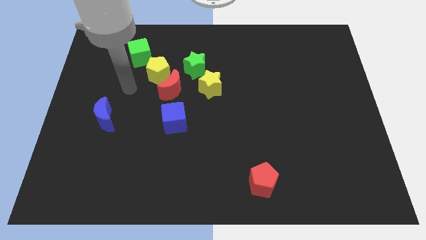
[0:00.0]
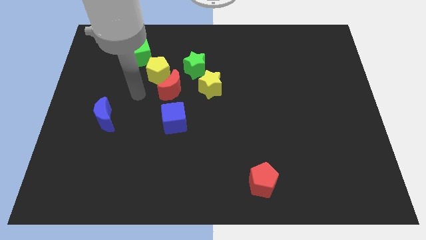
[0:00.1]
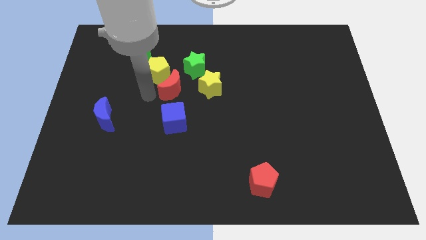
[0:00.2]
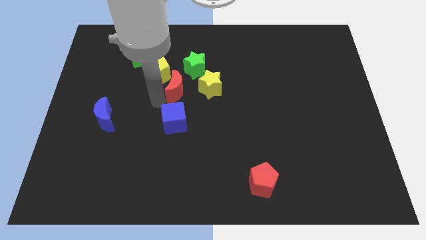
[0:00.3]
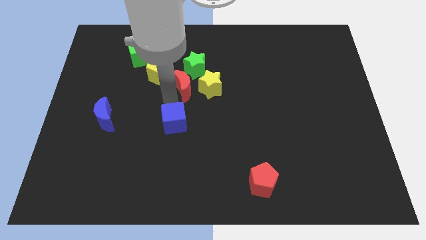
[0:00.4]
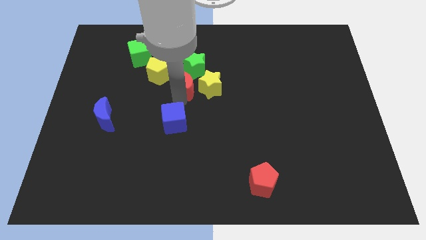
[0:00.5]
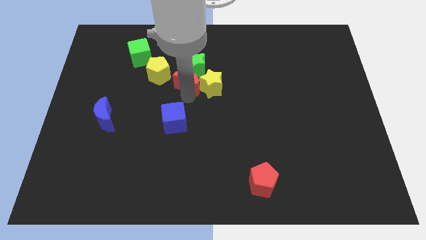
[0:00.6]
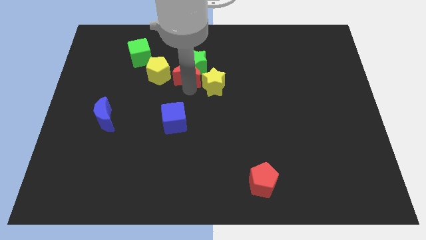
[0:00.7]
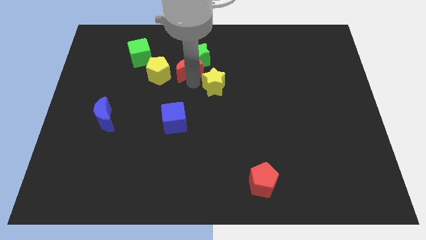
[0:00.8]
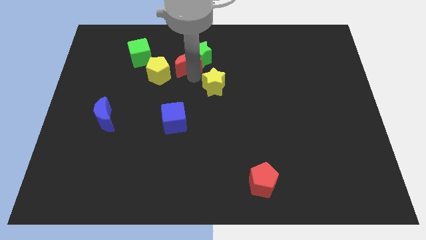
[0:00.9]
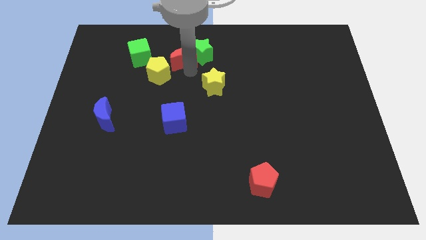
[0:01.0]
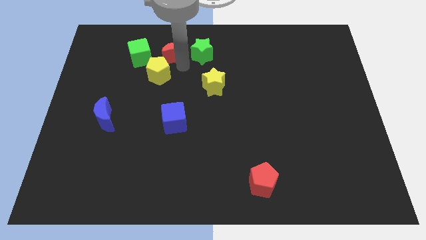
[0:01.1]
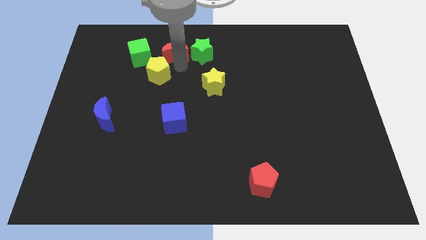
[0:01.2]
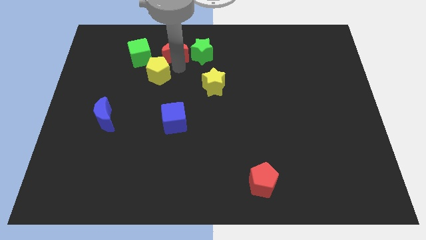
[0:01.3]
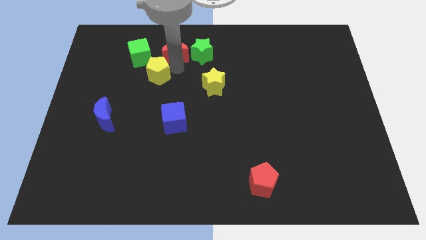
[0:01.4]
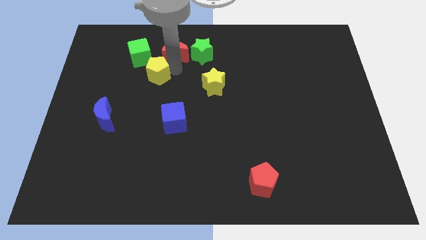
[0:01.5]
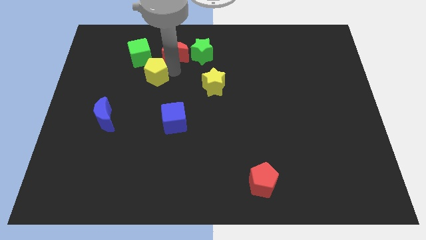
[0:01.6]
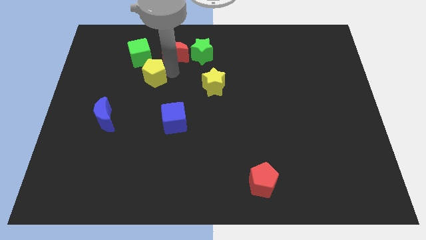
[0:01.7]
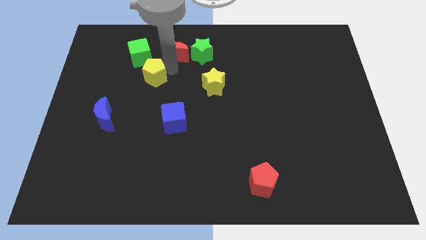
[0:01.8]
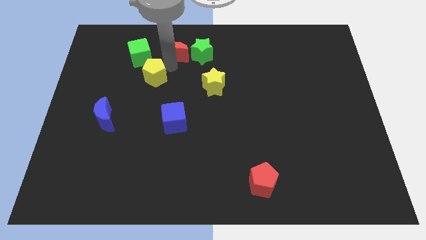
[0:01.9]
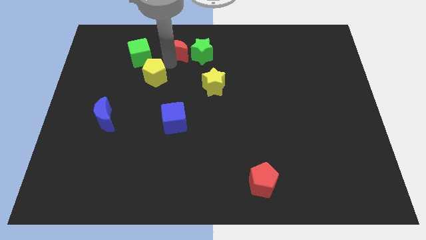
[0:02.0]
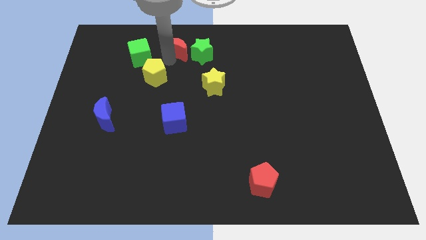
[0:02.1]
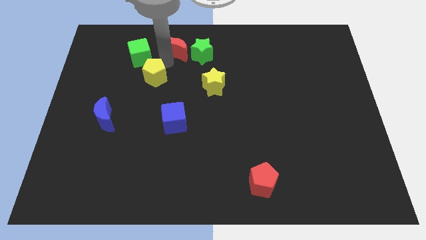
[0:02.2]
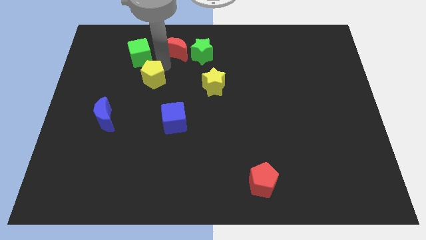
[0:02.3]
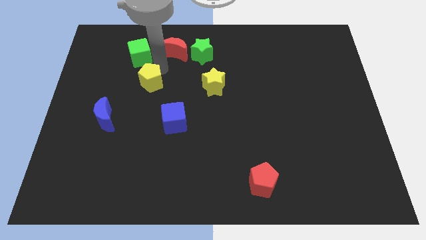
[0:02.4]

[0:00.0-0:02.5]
move the yellow pentagon away from the red moon, green cube, and green star

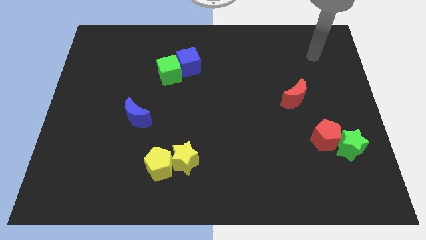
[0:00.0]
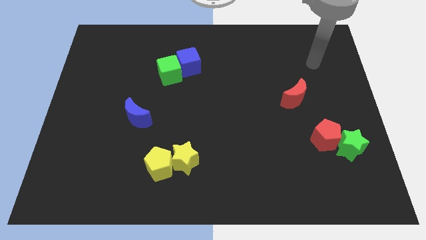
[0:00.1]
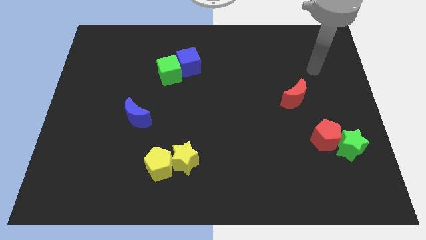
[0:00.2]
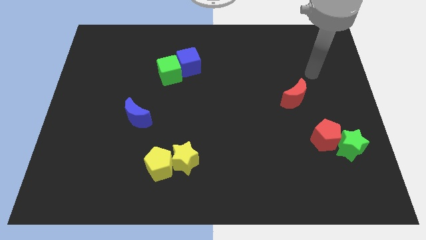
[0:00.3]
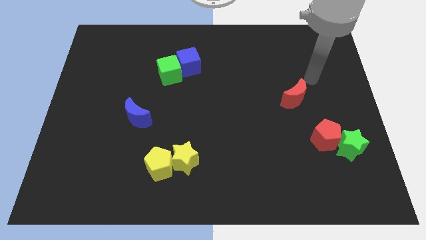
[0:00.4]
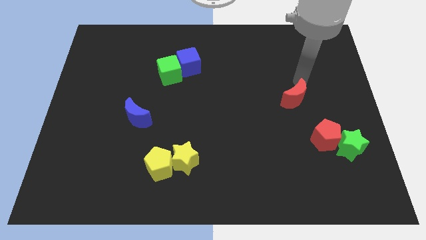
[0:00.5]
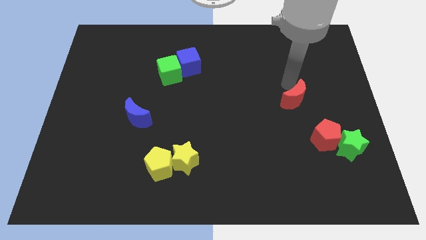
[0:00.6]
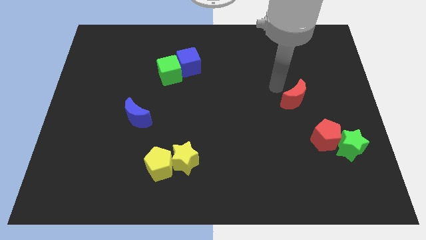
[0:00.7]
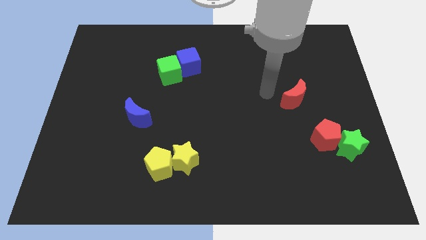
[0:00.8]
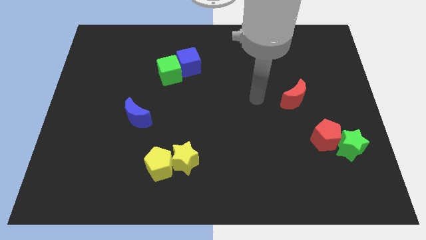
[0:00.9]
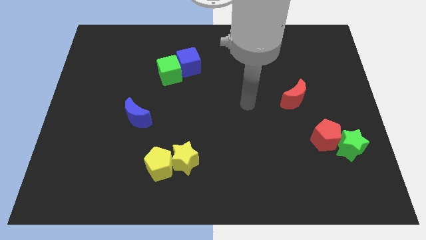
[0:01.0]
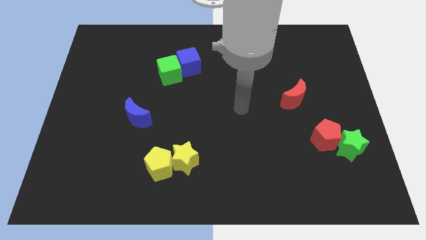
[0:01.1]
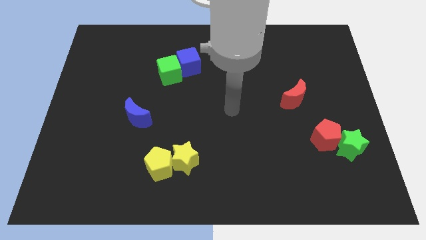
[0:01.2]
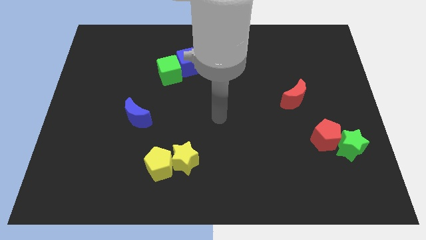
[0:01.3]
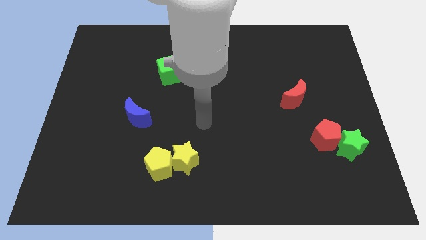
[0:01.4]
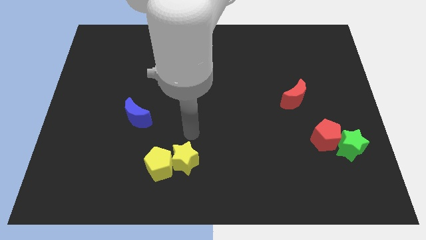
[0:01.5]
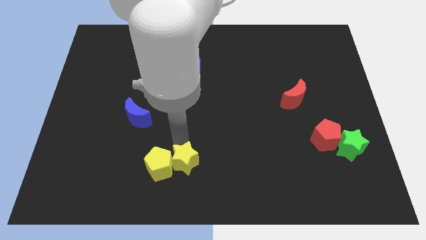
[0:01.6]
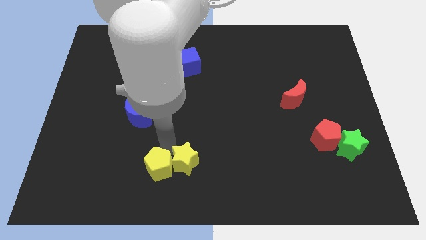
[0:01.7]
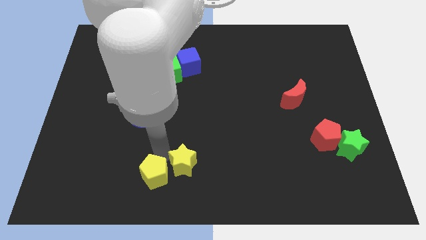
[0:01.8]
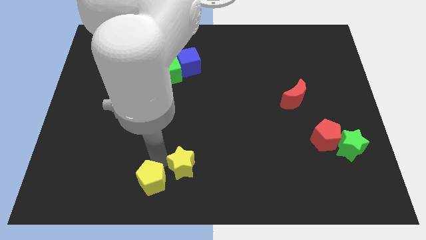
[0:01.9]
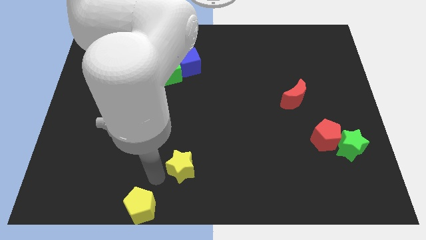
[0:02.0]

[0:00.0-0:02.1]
separate the yellow star from the yellow pentagon

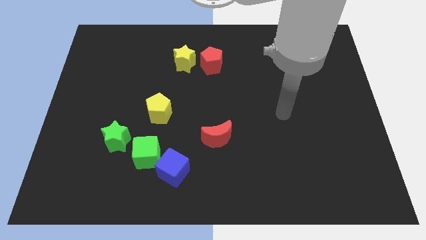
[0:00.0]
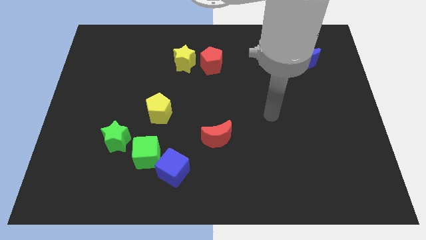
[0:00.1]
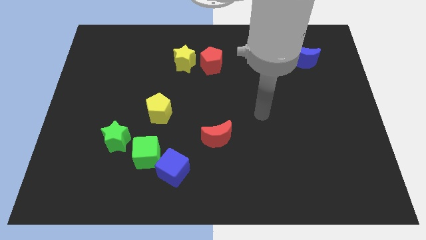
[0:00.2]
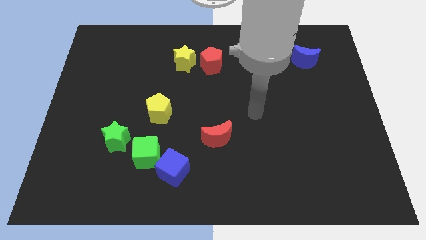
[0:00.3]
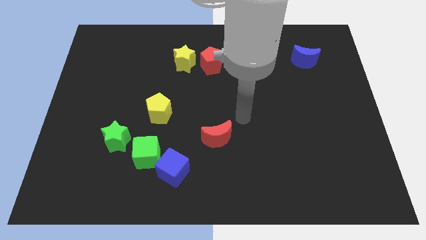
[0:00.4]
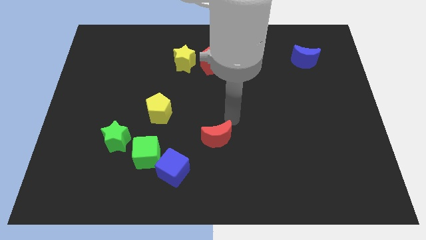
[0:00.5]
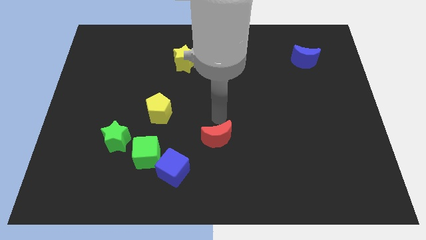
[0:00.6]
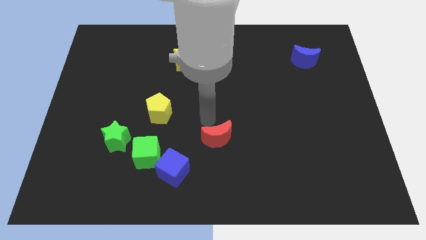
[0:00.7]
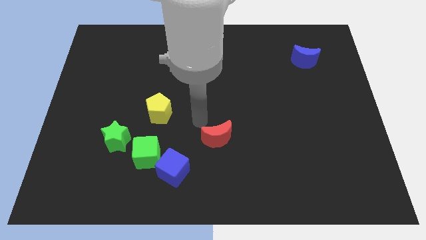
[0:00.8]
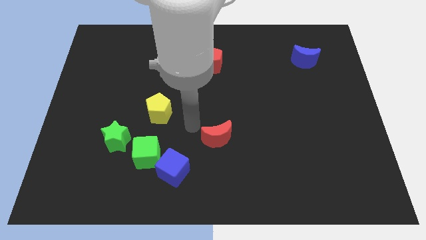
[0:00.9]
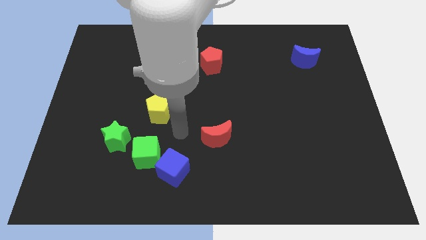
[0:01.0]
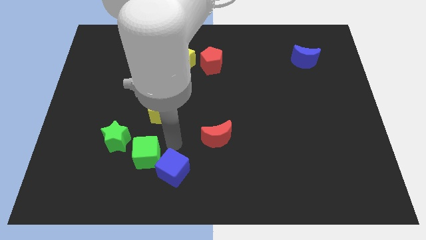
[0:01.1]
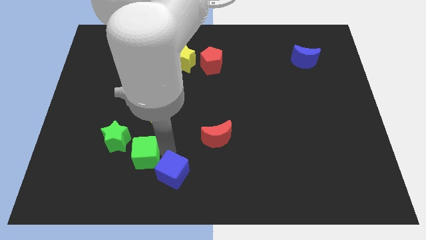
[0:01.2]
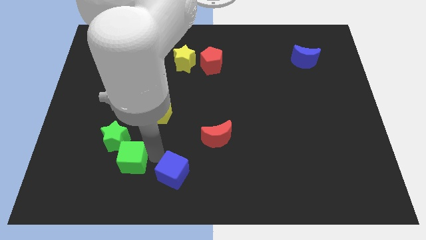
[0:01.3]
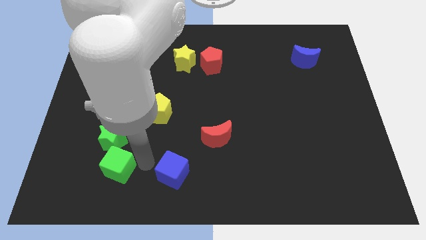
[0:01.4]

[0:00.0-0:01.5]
separate the blue cube from the green cube

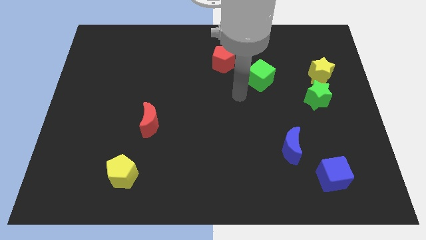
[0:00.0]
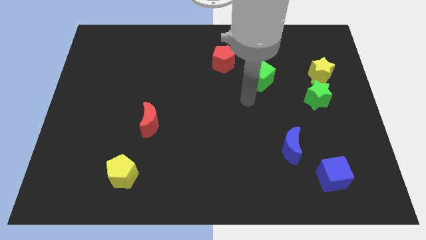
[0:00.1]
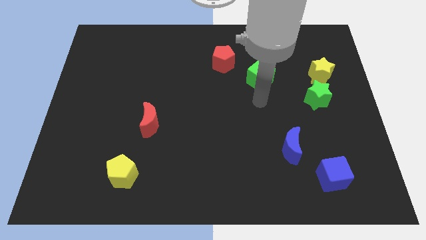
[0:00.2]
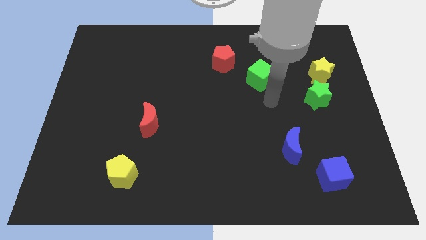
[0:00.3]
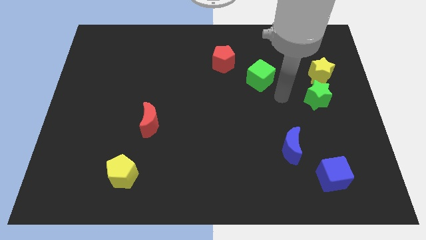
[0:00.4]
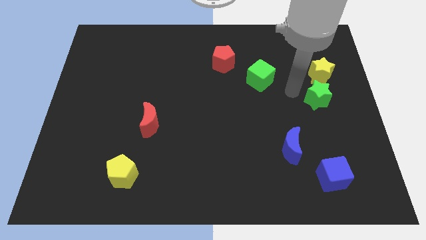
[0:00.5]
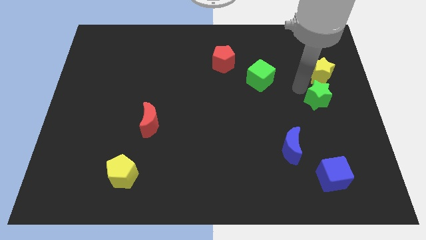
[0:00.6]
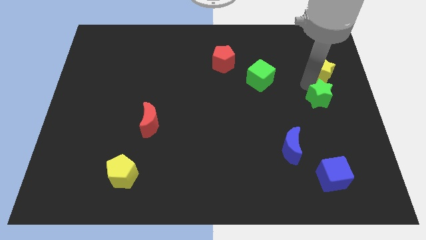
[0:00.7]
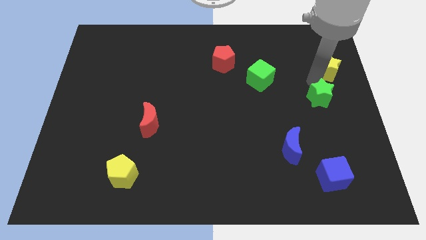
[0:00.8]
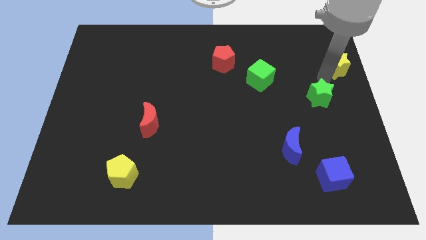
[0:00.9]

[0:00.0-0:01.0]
separate the green star from the yellow star

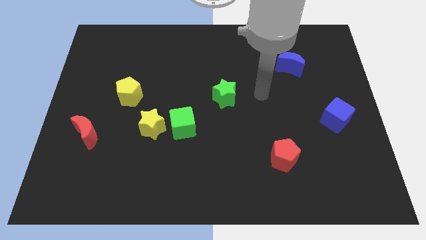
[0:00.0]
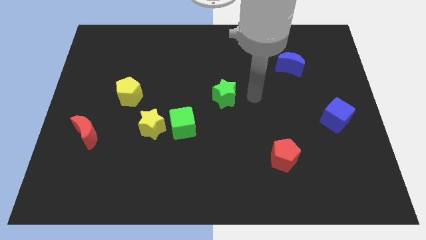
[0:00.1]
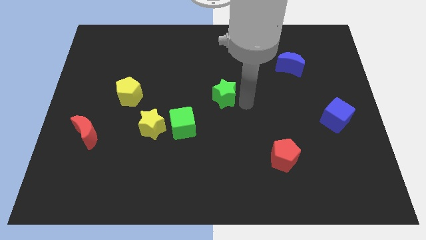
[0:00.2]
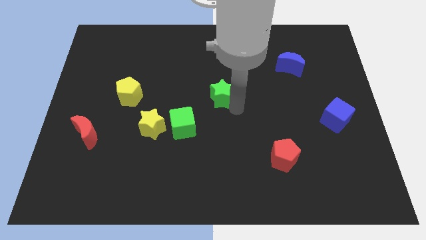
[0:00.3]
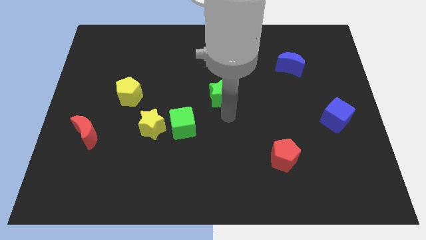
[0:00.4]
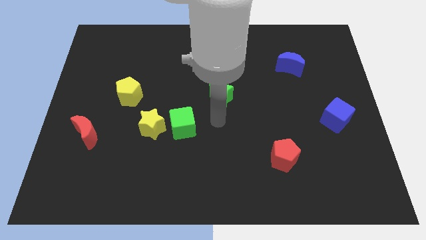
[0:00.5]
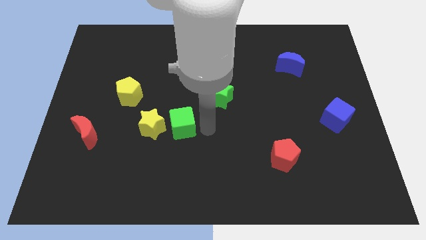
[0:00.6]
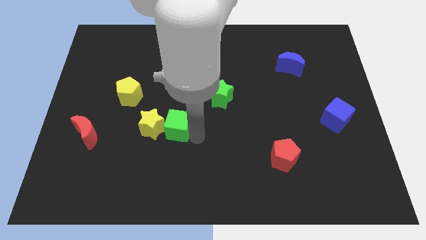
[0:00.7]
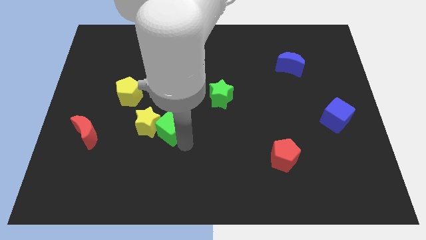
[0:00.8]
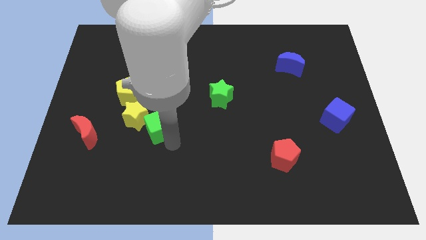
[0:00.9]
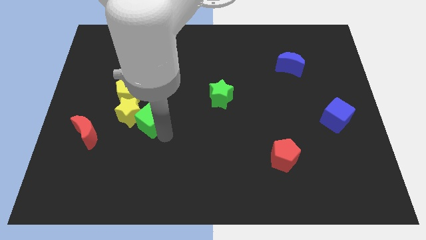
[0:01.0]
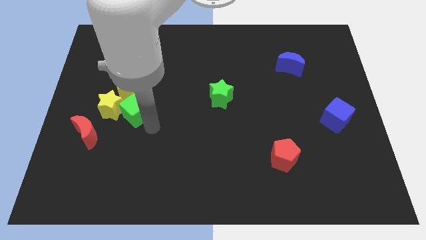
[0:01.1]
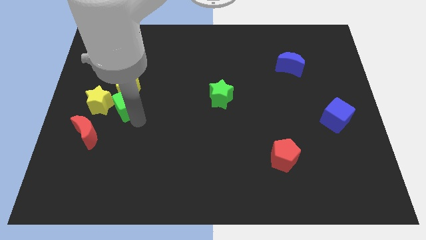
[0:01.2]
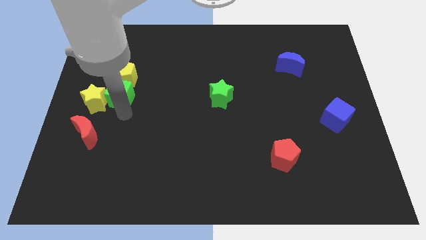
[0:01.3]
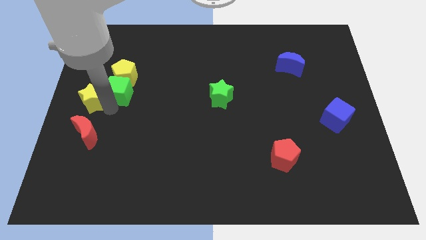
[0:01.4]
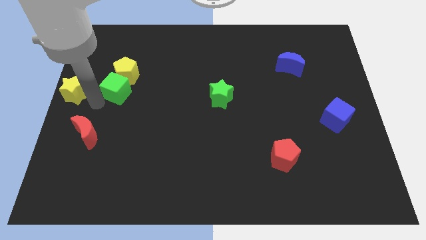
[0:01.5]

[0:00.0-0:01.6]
move the green cube away from the yellow star

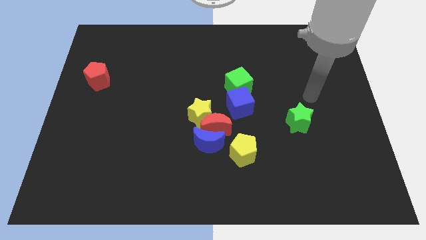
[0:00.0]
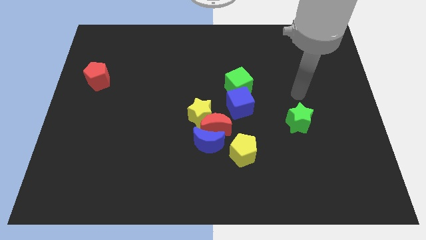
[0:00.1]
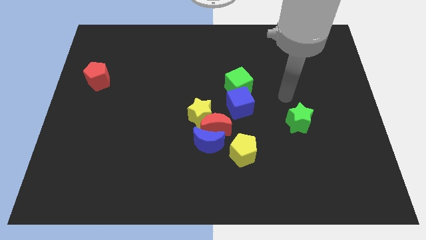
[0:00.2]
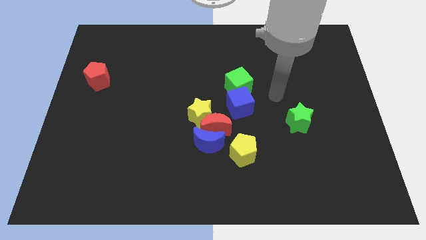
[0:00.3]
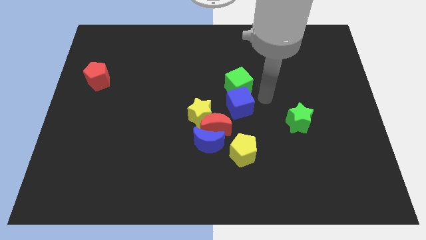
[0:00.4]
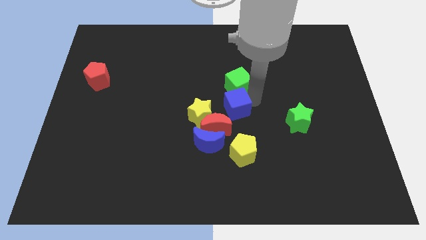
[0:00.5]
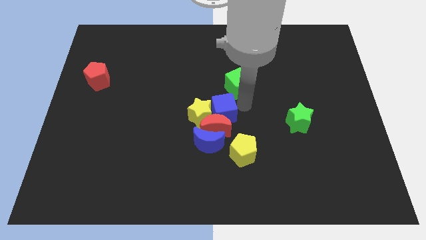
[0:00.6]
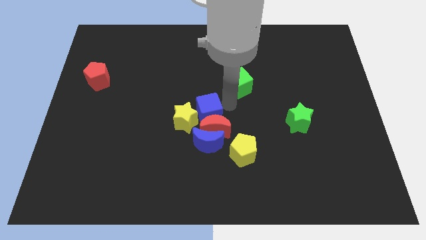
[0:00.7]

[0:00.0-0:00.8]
separate the green cube from the blue cube
